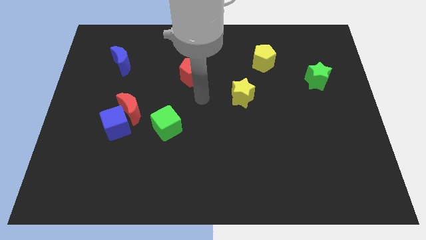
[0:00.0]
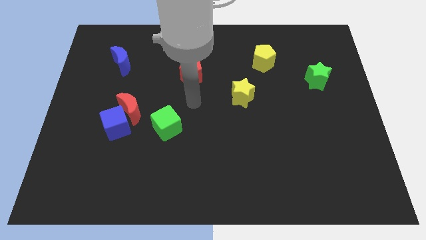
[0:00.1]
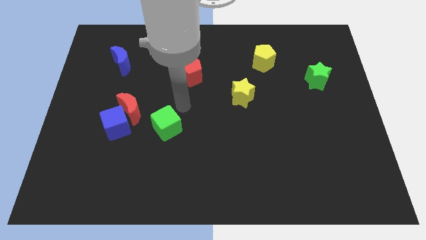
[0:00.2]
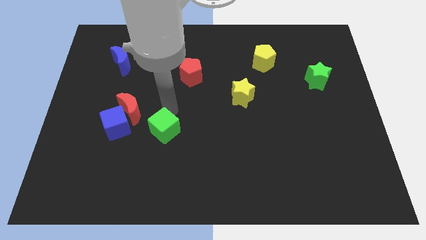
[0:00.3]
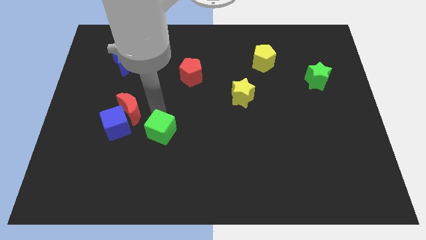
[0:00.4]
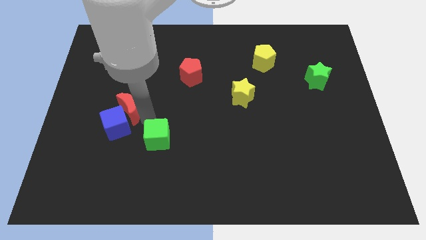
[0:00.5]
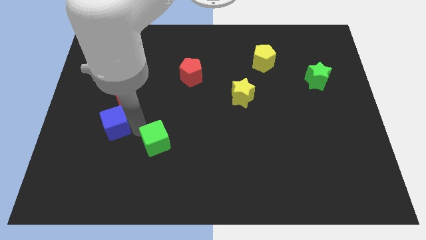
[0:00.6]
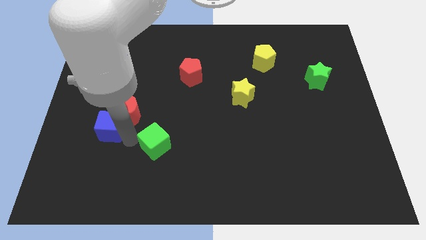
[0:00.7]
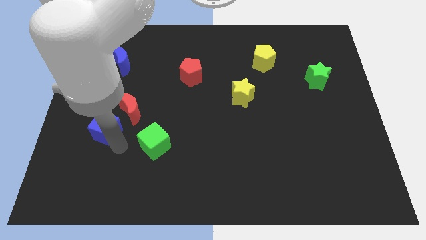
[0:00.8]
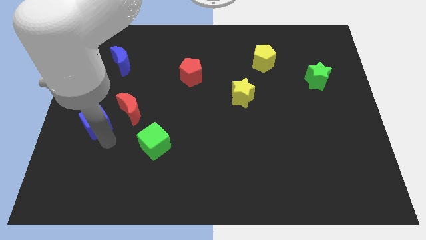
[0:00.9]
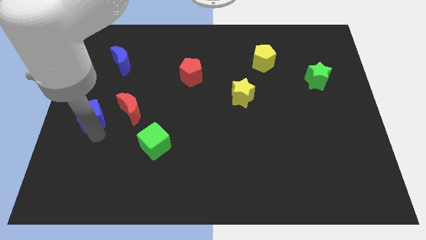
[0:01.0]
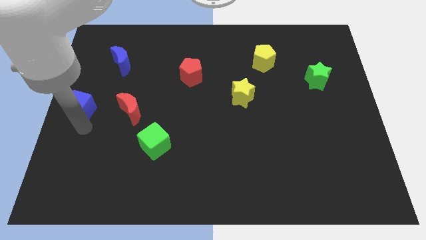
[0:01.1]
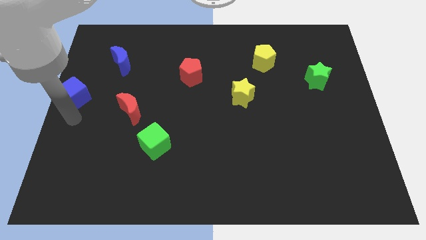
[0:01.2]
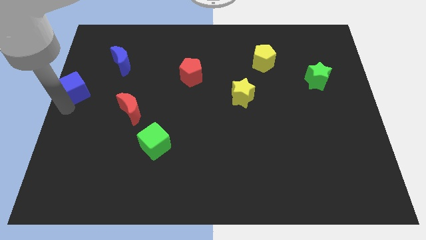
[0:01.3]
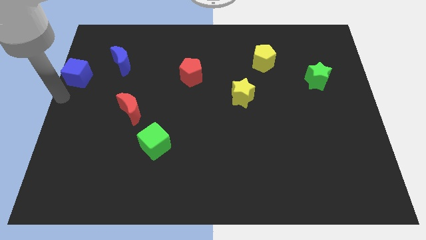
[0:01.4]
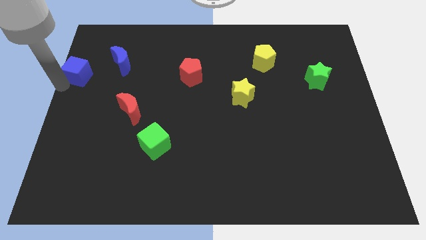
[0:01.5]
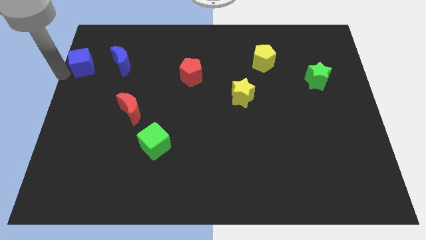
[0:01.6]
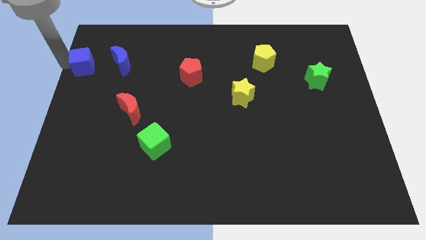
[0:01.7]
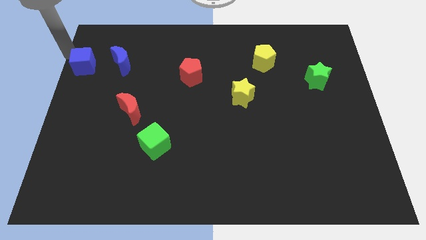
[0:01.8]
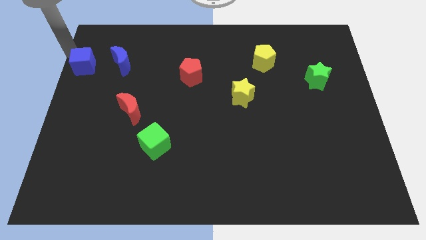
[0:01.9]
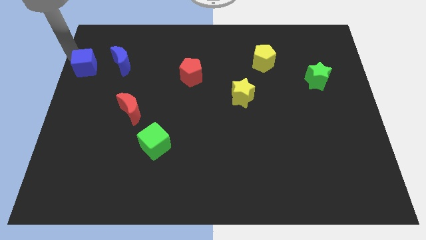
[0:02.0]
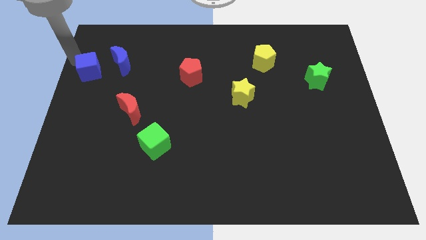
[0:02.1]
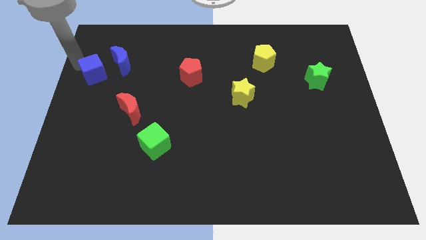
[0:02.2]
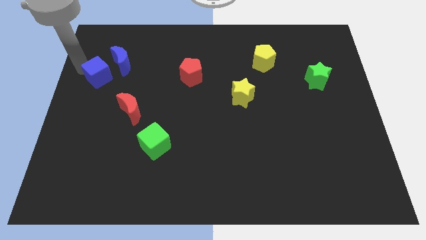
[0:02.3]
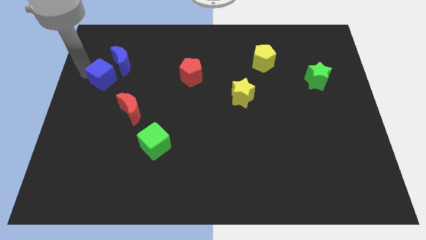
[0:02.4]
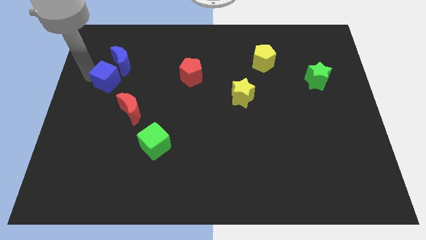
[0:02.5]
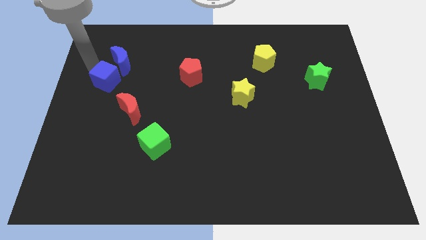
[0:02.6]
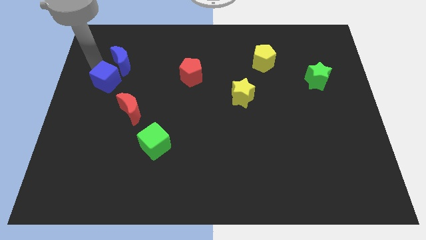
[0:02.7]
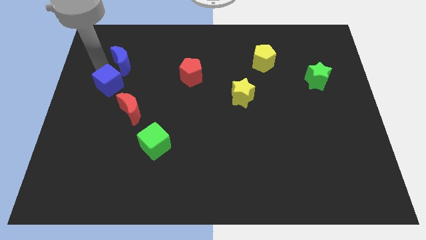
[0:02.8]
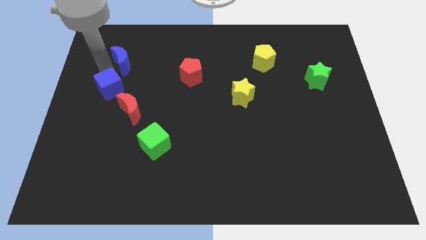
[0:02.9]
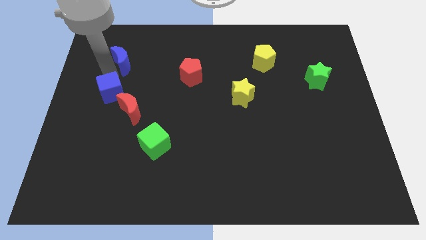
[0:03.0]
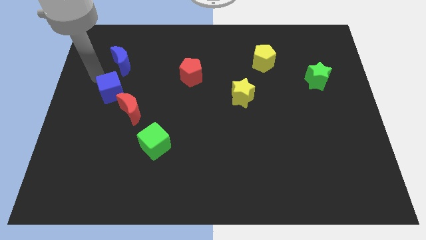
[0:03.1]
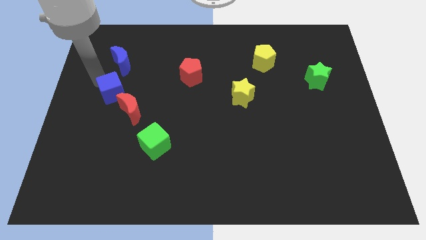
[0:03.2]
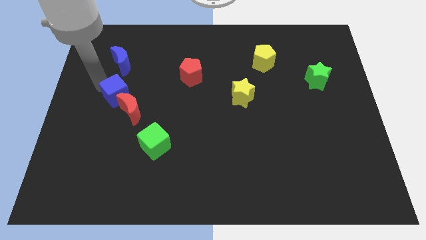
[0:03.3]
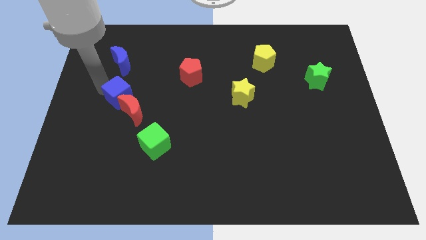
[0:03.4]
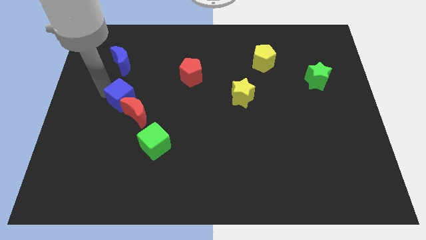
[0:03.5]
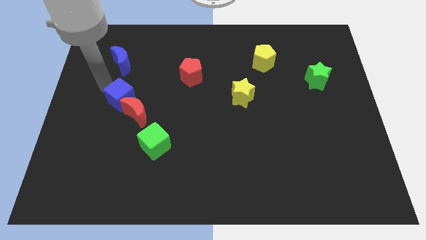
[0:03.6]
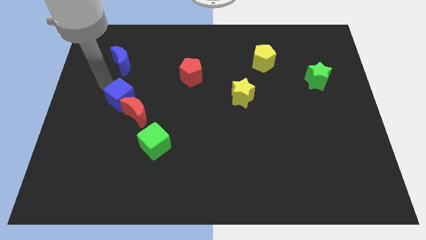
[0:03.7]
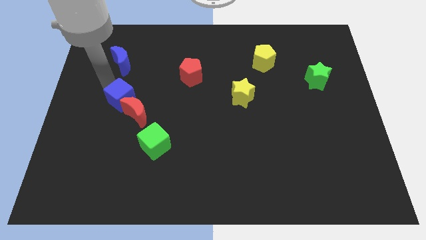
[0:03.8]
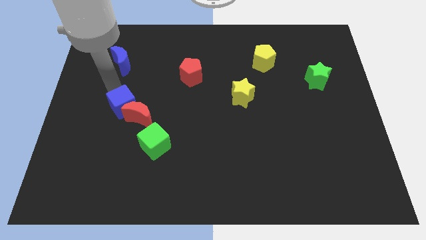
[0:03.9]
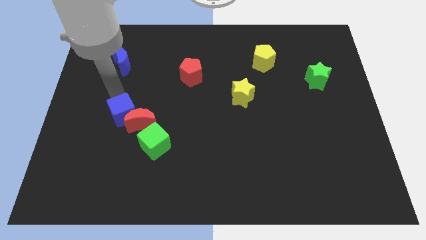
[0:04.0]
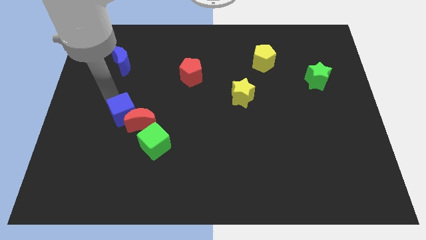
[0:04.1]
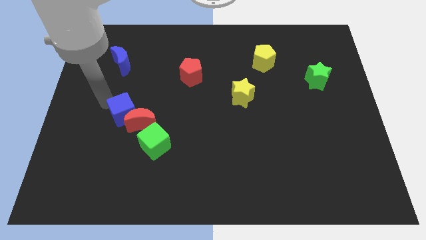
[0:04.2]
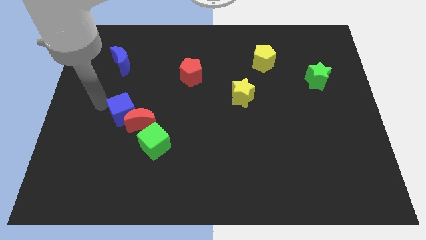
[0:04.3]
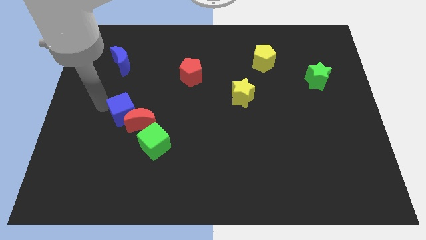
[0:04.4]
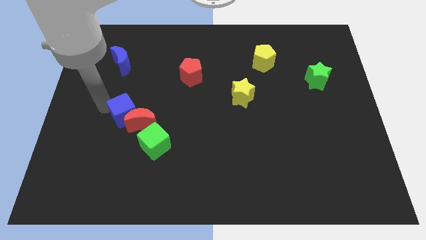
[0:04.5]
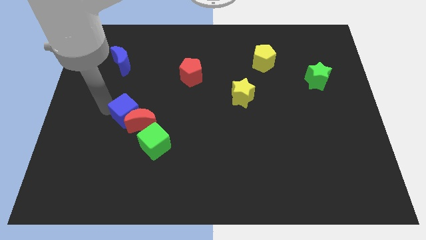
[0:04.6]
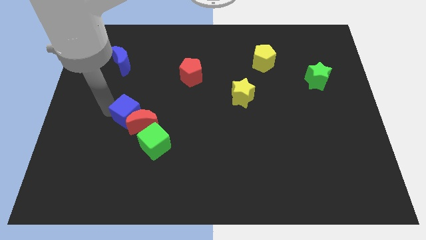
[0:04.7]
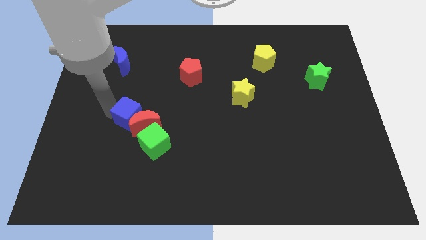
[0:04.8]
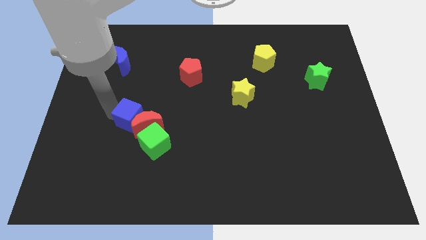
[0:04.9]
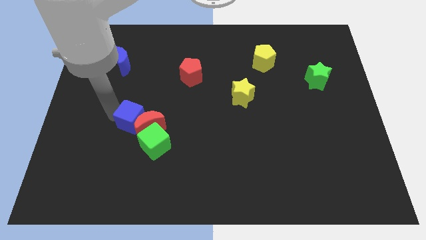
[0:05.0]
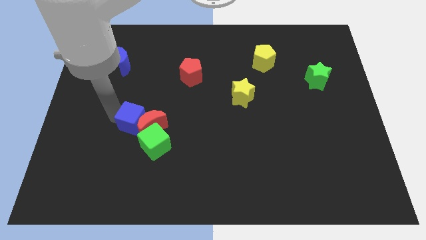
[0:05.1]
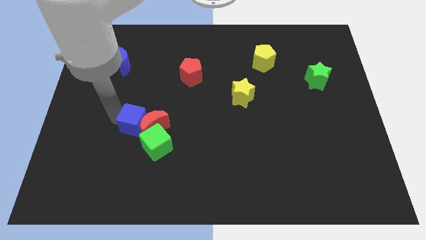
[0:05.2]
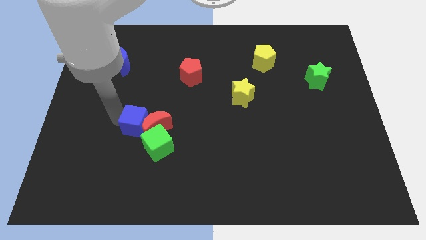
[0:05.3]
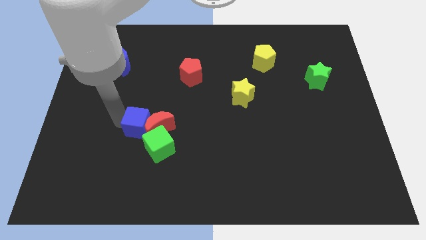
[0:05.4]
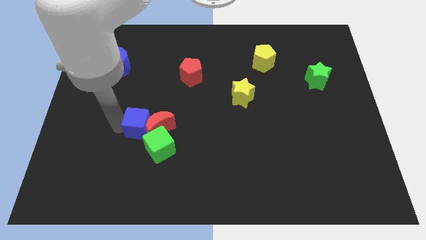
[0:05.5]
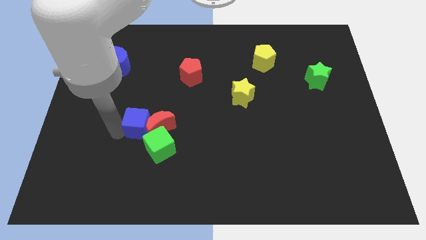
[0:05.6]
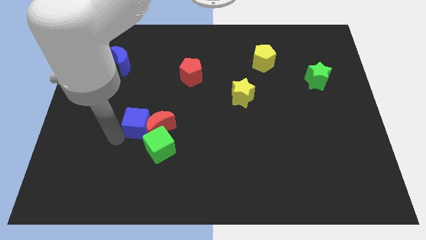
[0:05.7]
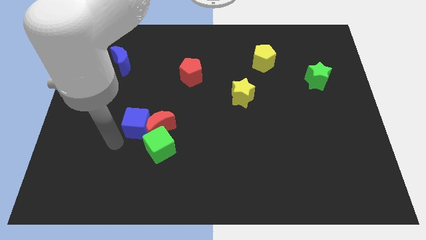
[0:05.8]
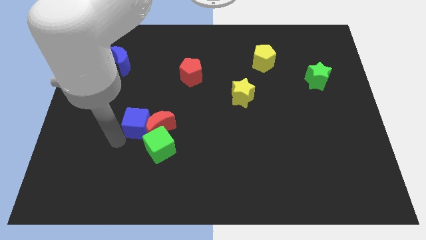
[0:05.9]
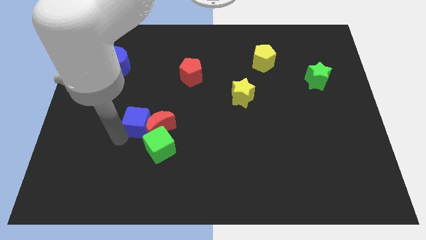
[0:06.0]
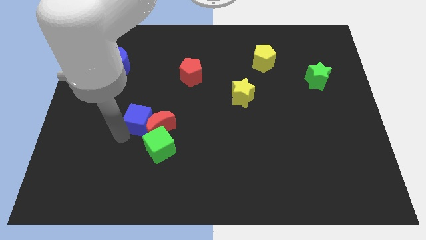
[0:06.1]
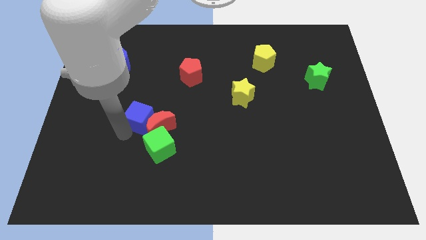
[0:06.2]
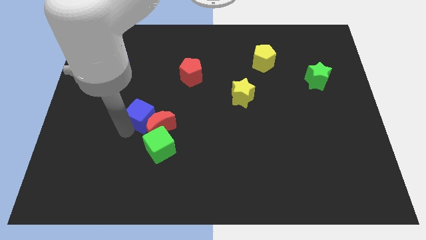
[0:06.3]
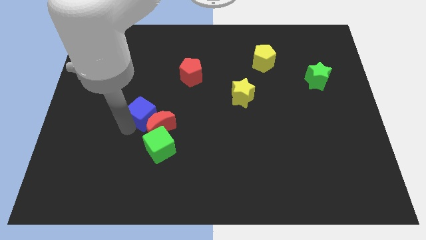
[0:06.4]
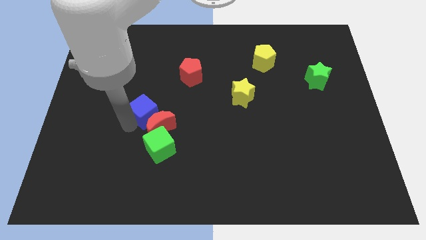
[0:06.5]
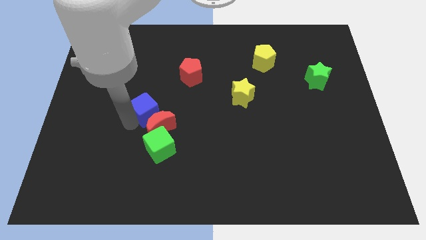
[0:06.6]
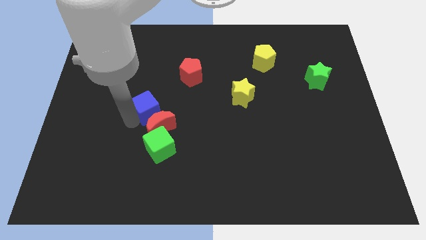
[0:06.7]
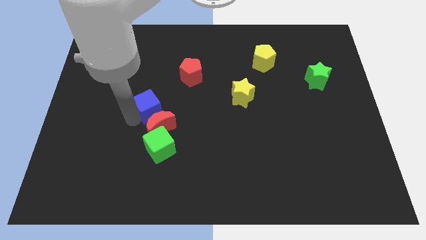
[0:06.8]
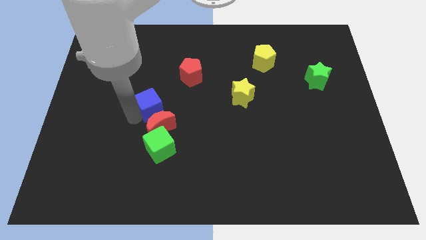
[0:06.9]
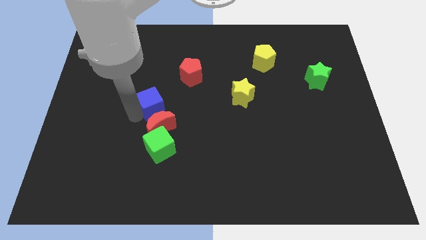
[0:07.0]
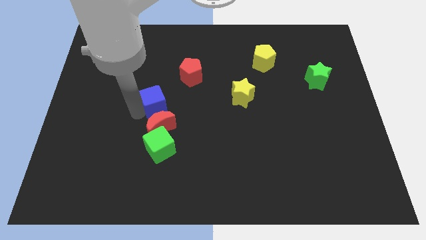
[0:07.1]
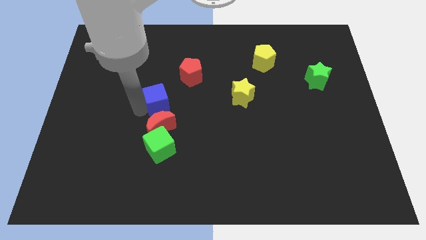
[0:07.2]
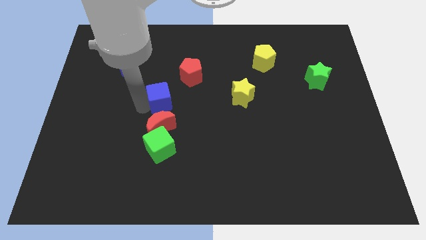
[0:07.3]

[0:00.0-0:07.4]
push the blue cube to the center of the board
